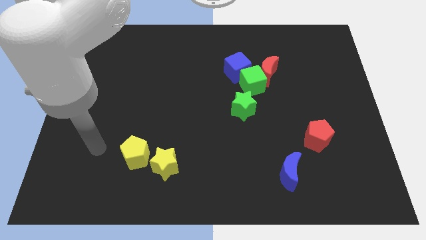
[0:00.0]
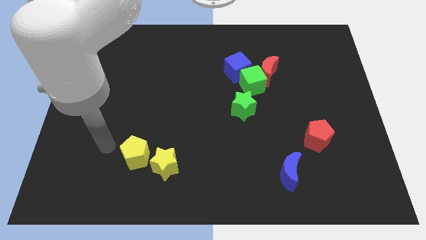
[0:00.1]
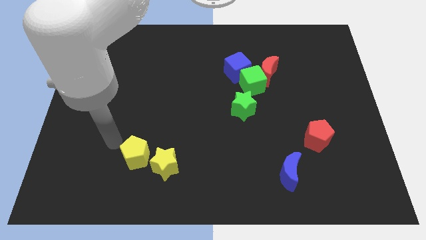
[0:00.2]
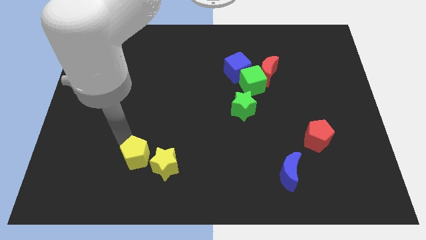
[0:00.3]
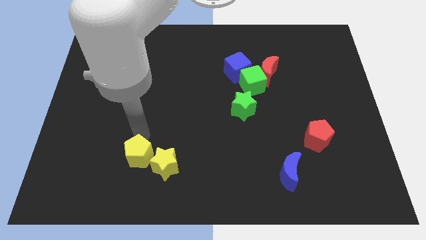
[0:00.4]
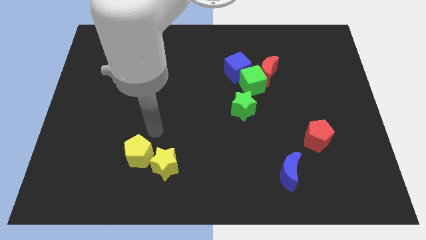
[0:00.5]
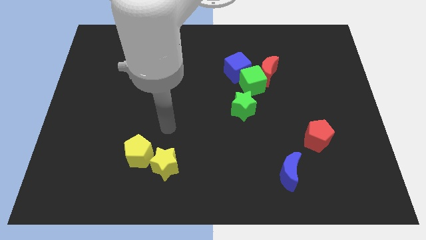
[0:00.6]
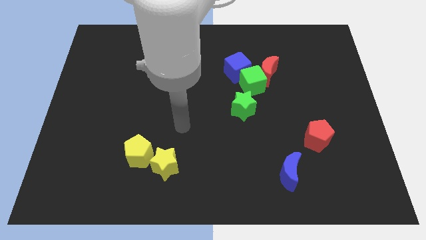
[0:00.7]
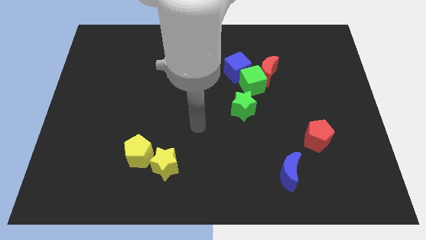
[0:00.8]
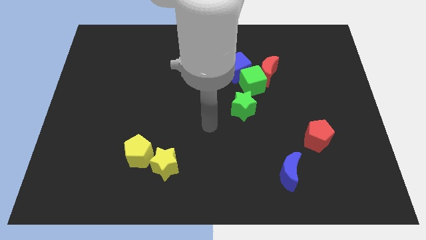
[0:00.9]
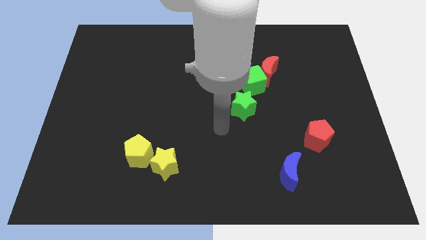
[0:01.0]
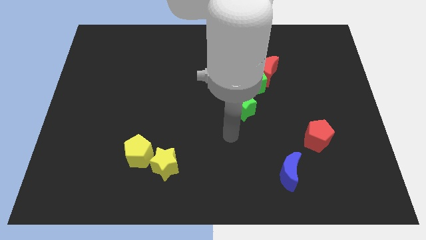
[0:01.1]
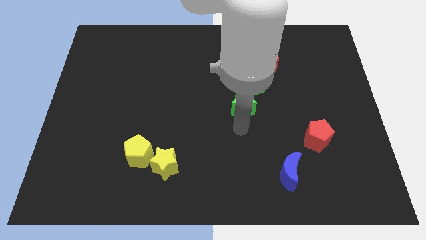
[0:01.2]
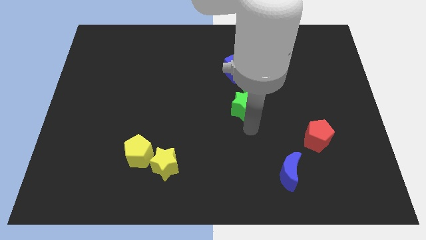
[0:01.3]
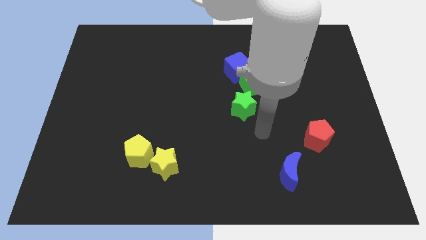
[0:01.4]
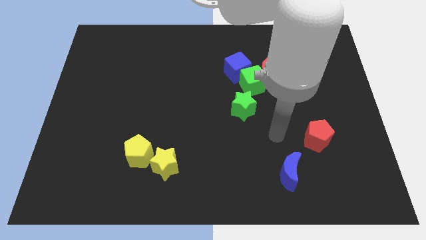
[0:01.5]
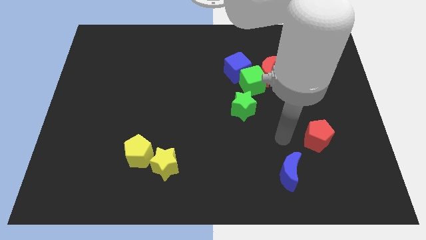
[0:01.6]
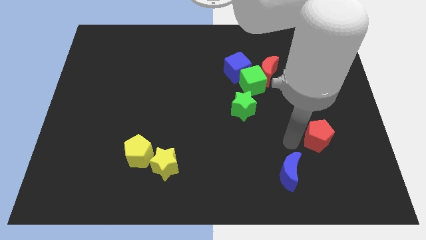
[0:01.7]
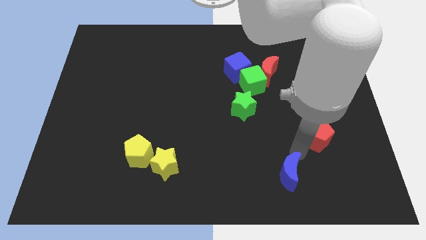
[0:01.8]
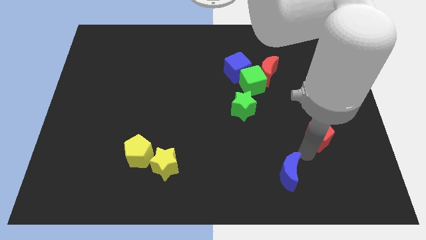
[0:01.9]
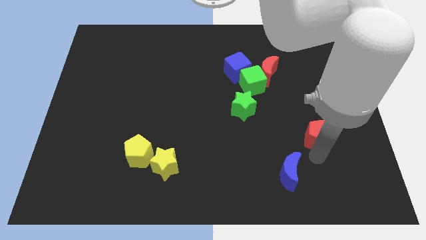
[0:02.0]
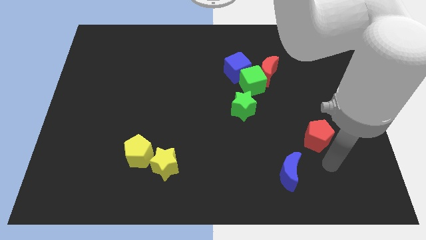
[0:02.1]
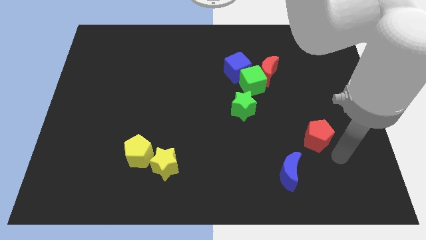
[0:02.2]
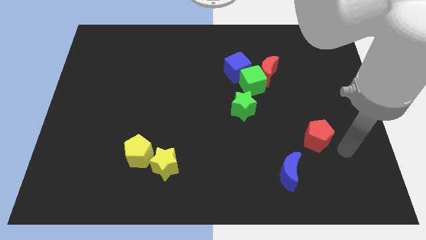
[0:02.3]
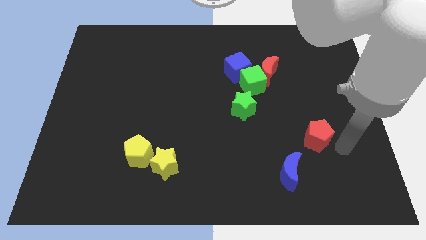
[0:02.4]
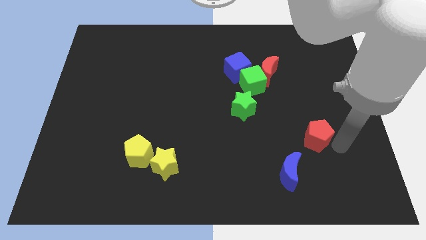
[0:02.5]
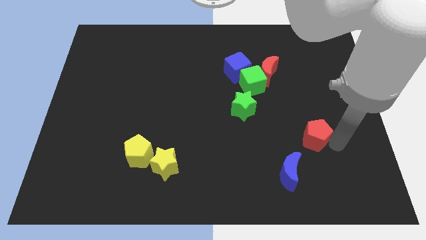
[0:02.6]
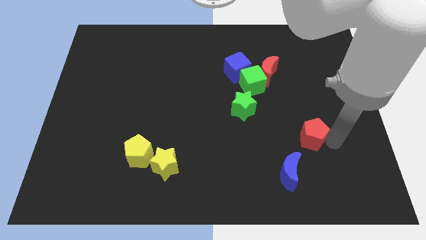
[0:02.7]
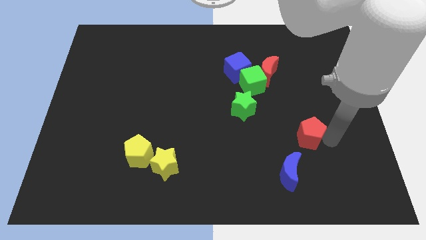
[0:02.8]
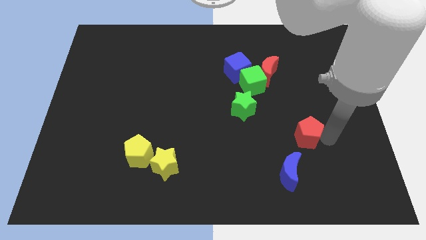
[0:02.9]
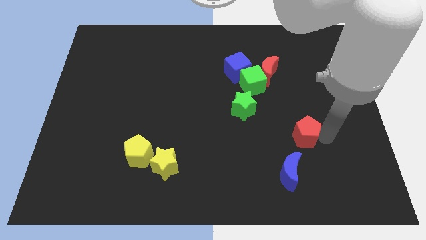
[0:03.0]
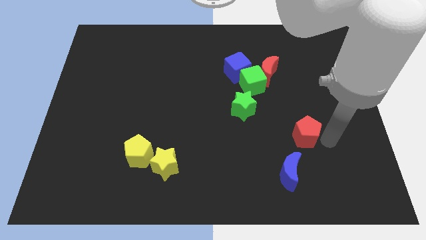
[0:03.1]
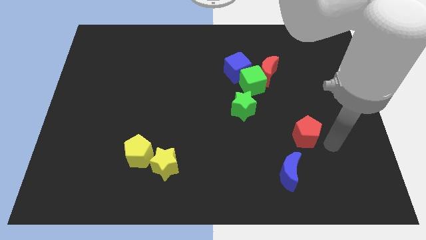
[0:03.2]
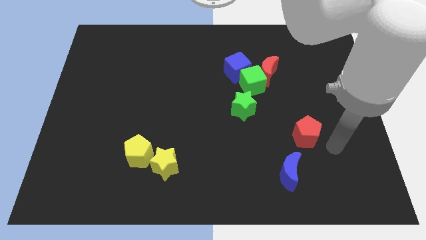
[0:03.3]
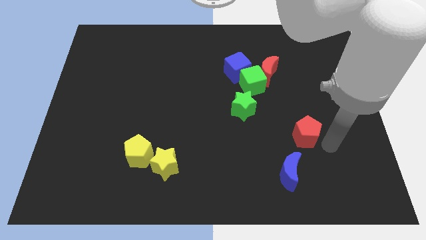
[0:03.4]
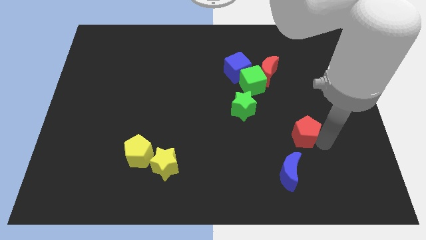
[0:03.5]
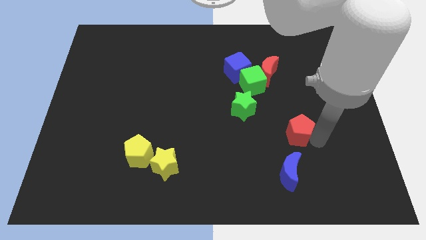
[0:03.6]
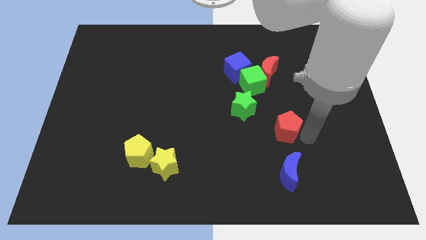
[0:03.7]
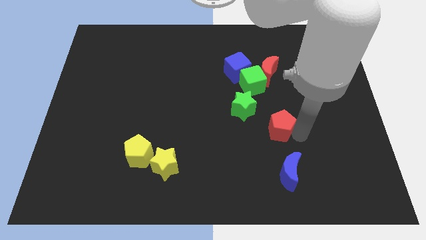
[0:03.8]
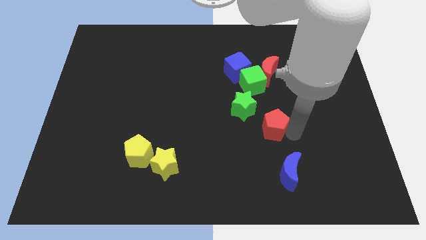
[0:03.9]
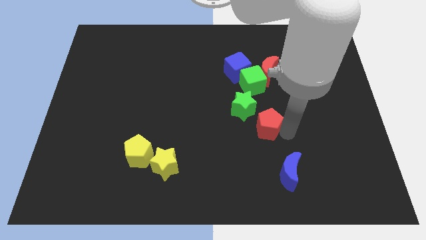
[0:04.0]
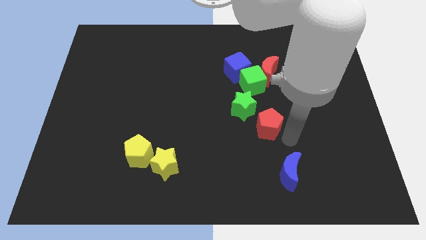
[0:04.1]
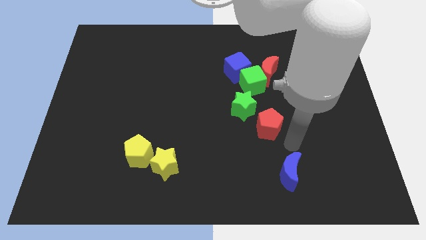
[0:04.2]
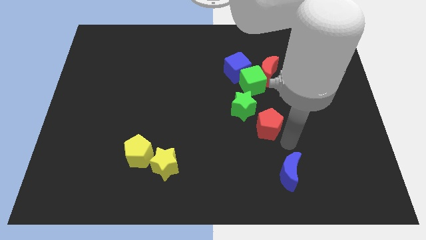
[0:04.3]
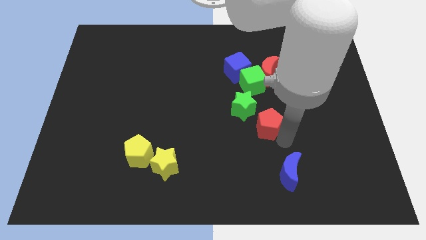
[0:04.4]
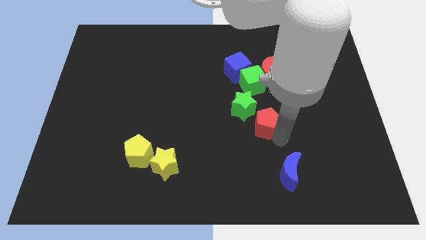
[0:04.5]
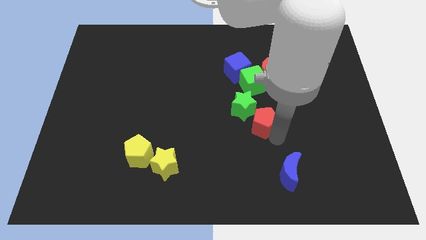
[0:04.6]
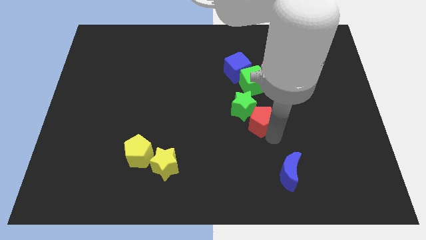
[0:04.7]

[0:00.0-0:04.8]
push the red pentagon next to the green star

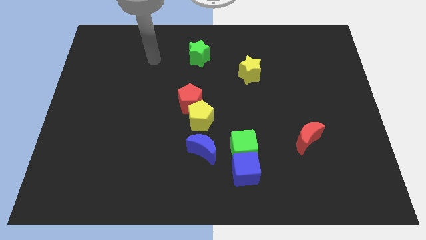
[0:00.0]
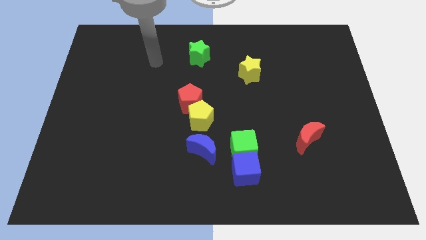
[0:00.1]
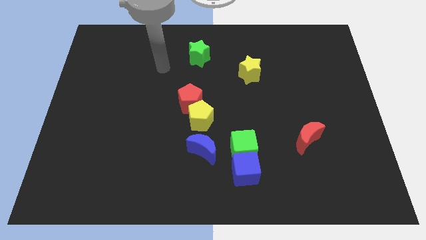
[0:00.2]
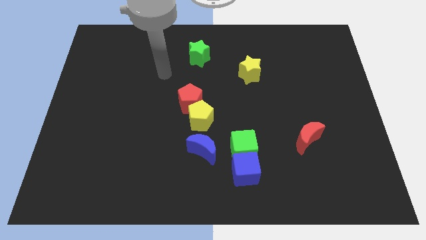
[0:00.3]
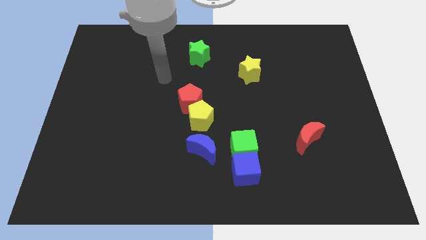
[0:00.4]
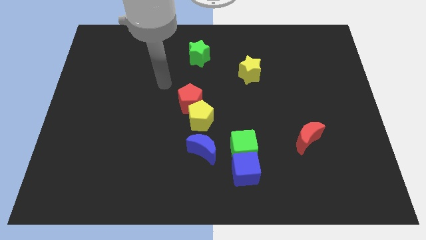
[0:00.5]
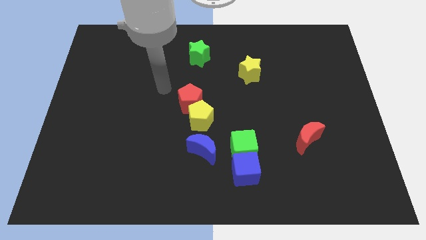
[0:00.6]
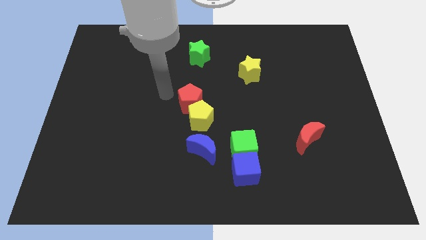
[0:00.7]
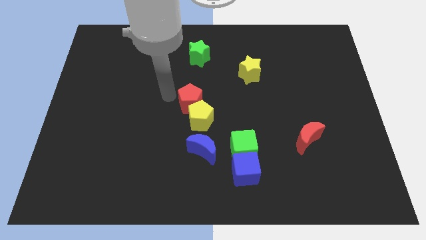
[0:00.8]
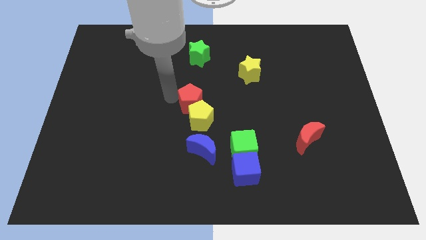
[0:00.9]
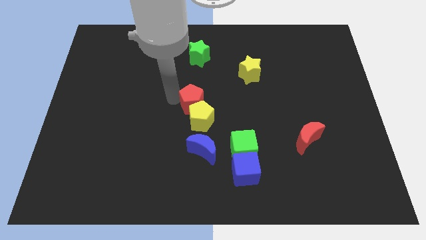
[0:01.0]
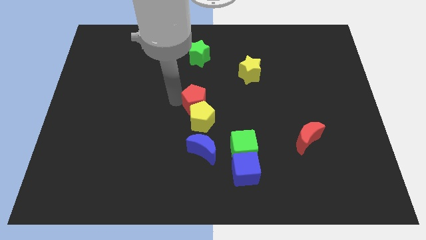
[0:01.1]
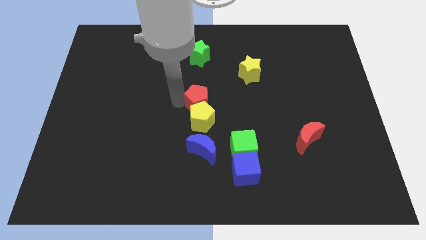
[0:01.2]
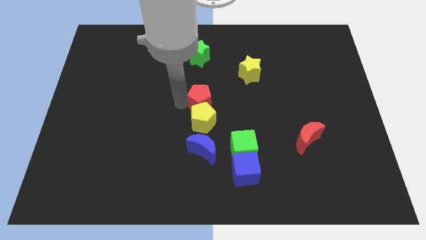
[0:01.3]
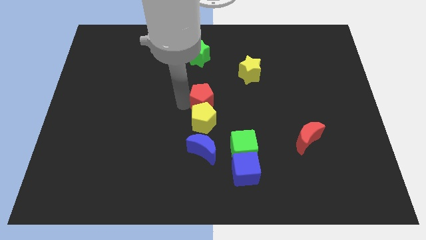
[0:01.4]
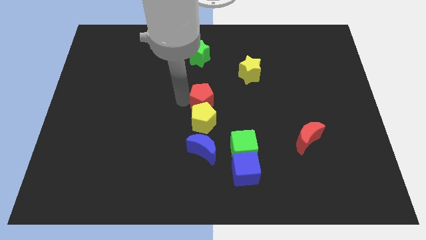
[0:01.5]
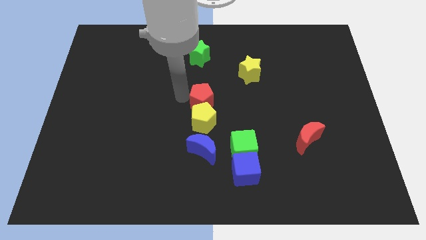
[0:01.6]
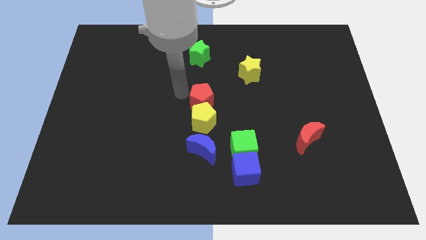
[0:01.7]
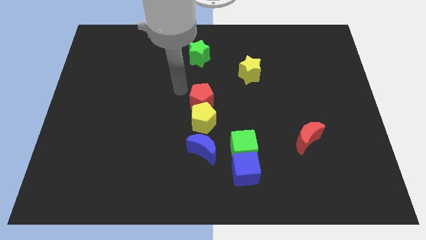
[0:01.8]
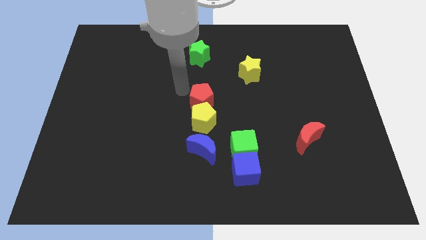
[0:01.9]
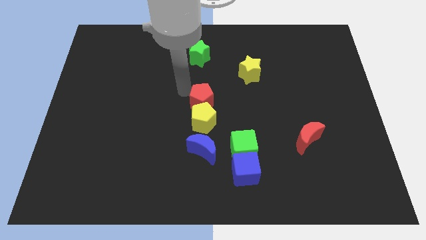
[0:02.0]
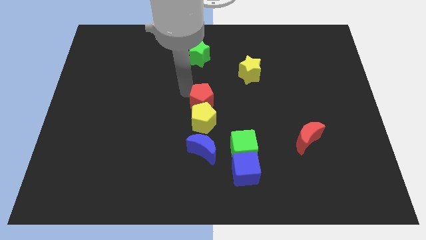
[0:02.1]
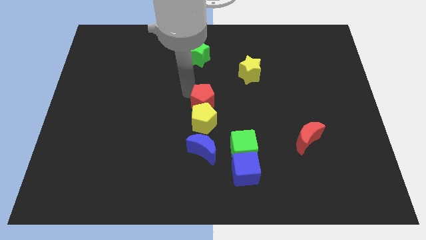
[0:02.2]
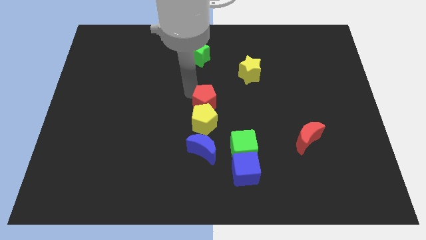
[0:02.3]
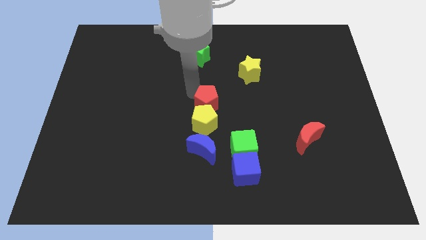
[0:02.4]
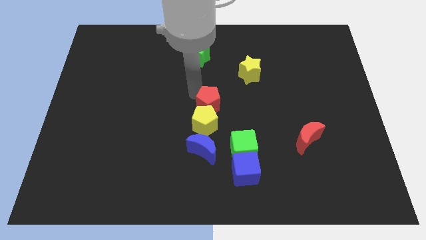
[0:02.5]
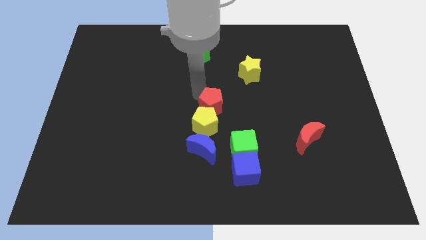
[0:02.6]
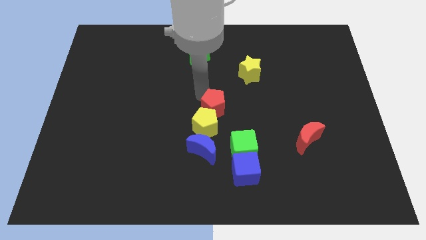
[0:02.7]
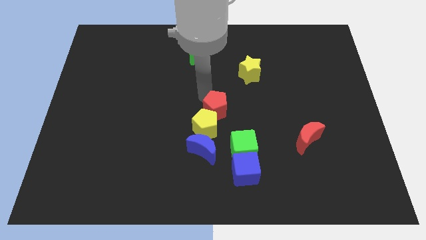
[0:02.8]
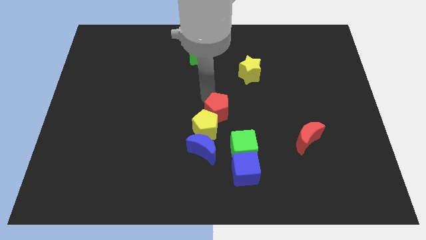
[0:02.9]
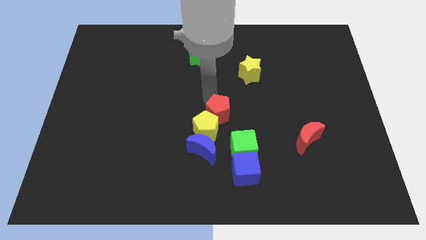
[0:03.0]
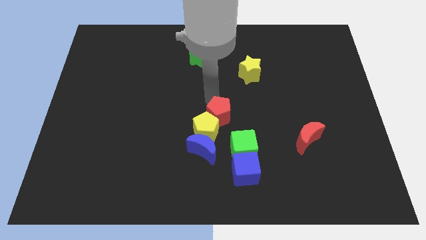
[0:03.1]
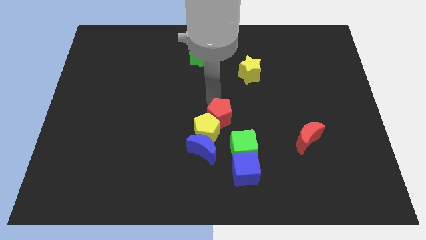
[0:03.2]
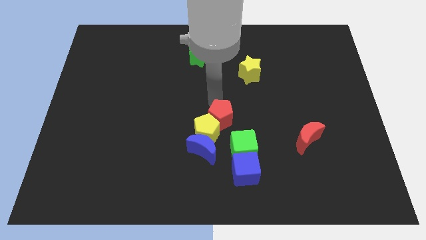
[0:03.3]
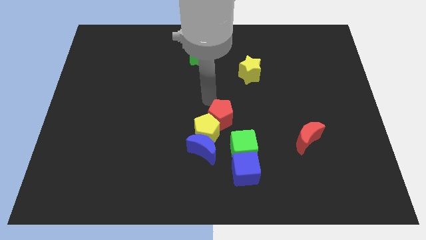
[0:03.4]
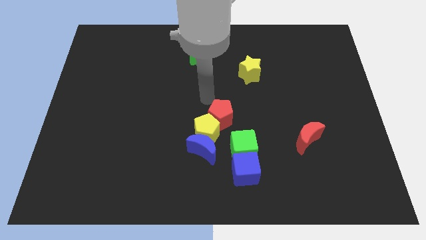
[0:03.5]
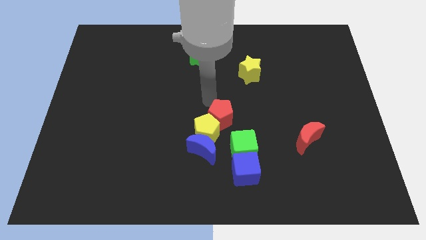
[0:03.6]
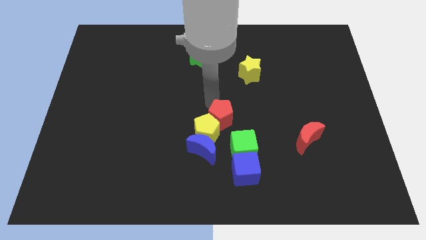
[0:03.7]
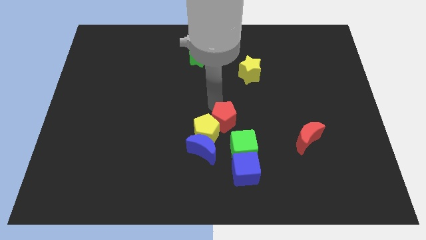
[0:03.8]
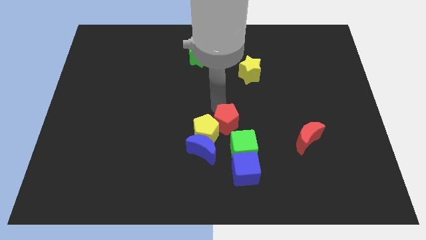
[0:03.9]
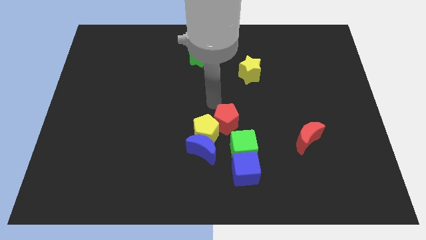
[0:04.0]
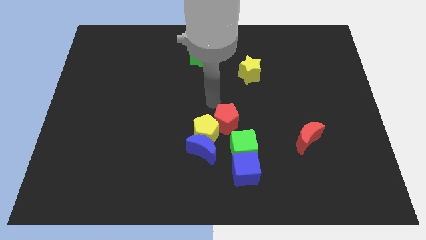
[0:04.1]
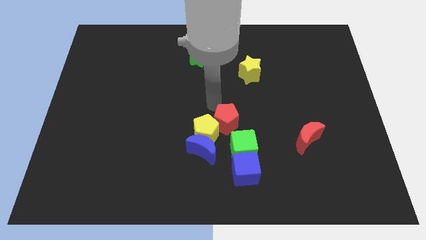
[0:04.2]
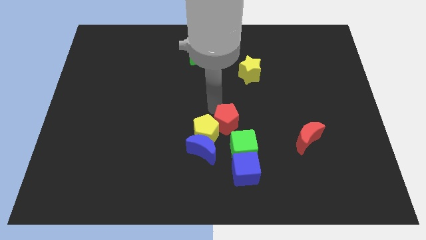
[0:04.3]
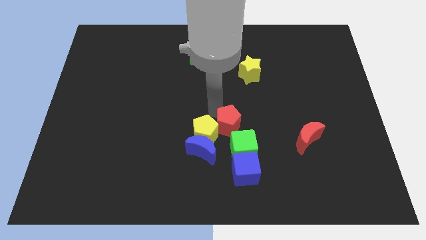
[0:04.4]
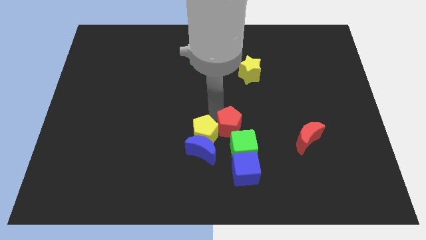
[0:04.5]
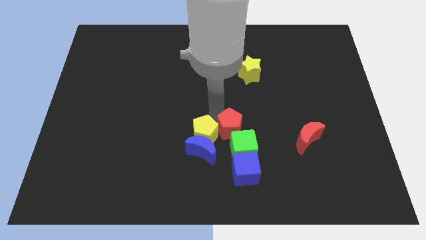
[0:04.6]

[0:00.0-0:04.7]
push the red pentagon close to the green cube
